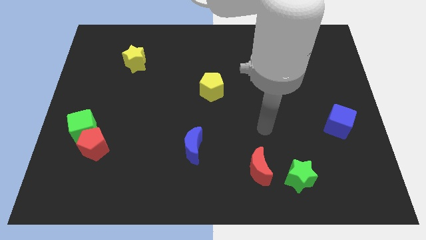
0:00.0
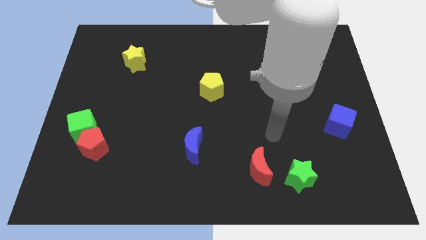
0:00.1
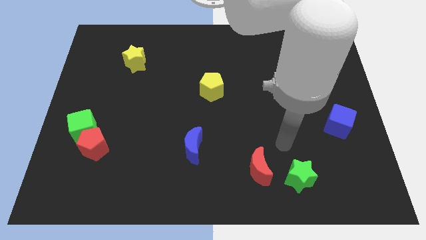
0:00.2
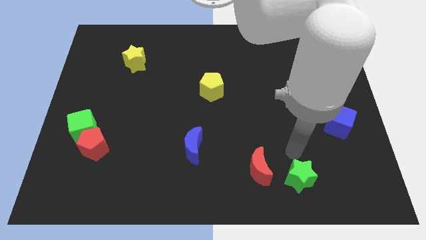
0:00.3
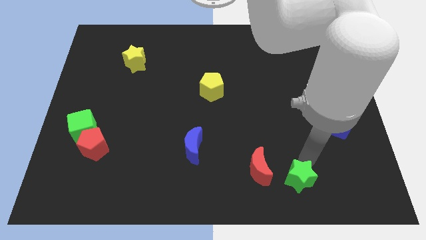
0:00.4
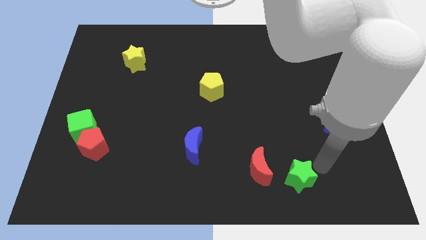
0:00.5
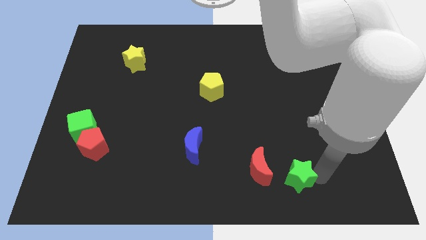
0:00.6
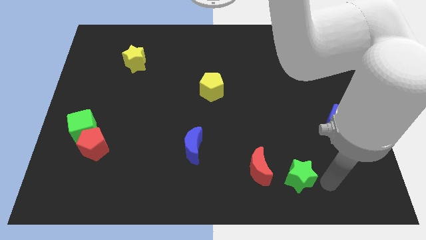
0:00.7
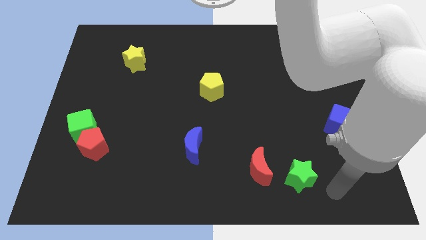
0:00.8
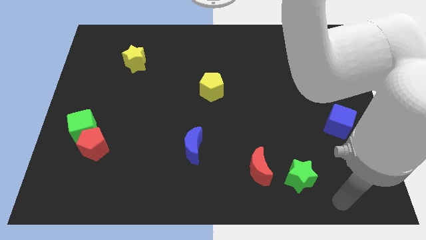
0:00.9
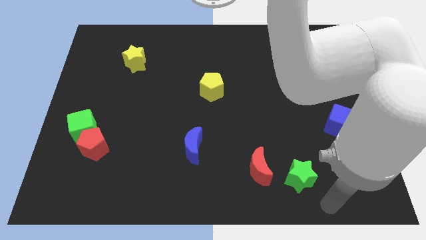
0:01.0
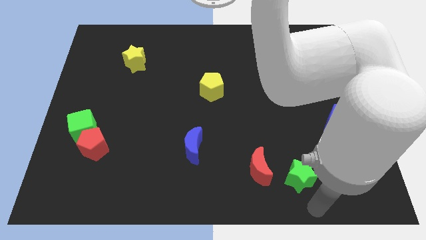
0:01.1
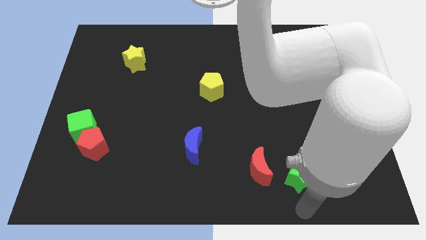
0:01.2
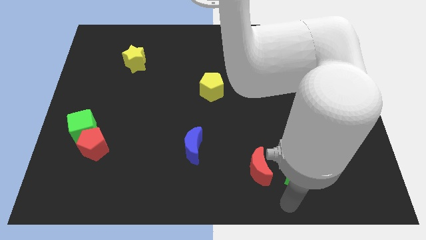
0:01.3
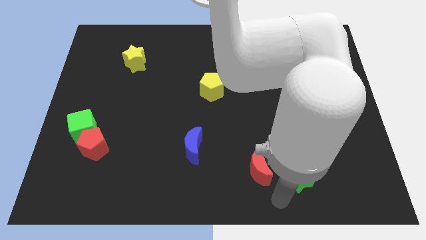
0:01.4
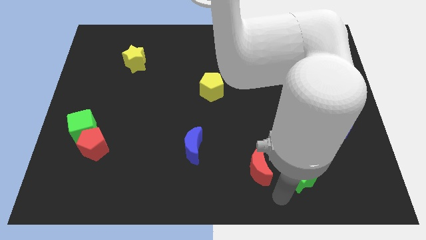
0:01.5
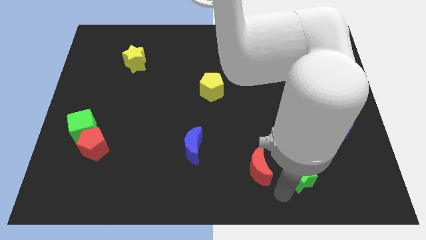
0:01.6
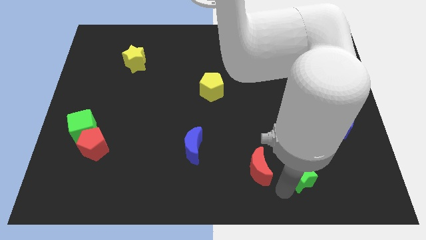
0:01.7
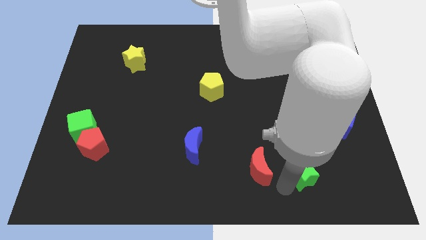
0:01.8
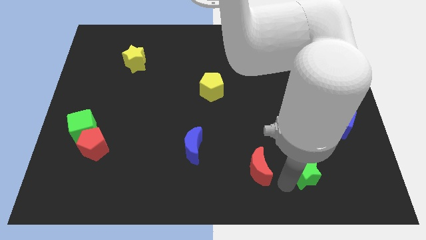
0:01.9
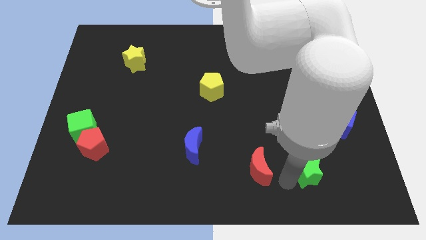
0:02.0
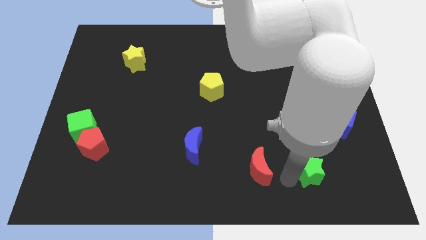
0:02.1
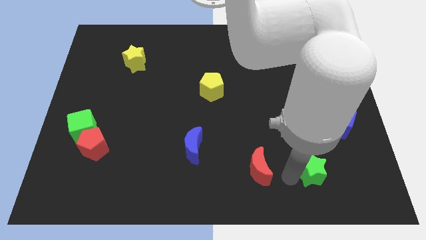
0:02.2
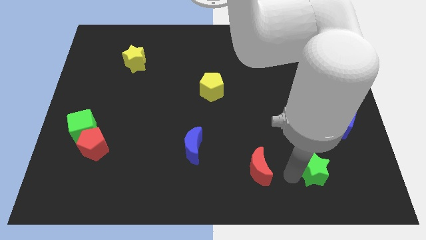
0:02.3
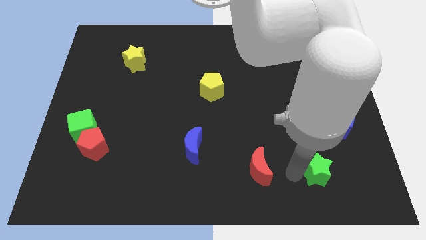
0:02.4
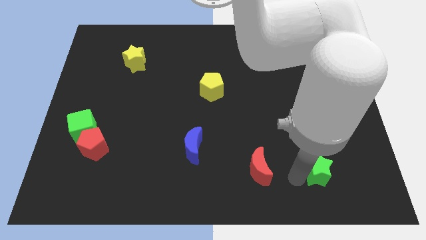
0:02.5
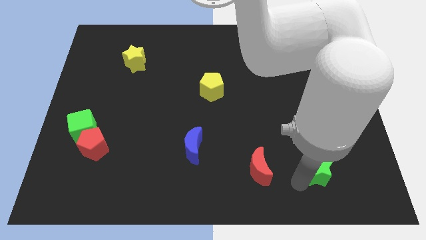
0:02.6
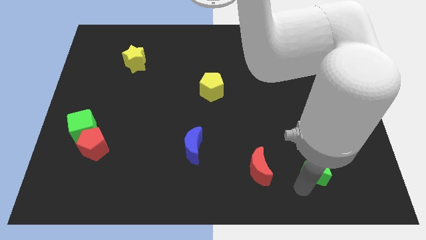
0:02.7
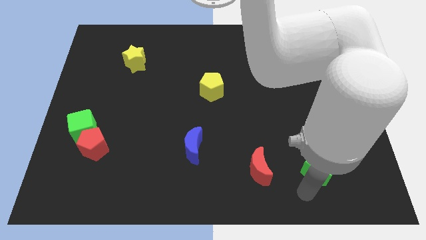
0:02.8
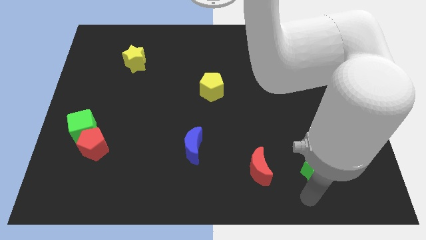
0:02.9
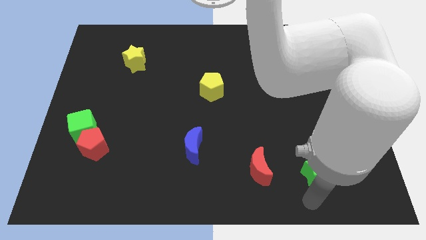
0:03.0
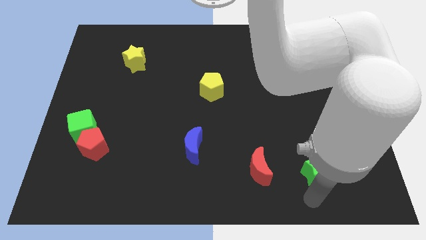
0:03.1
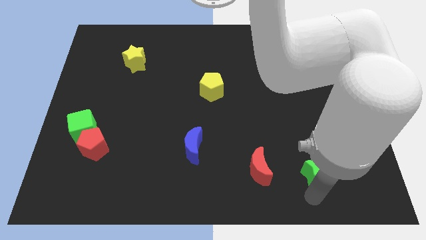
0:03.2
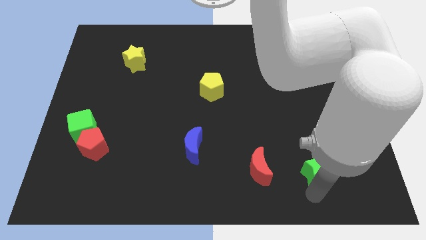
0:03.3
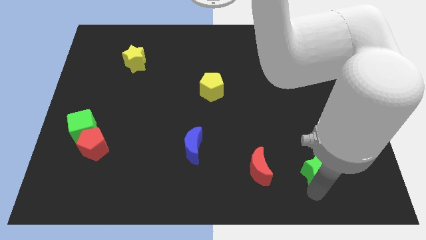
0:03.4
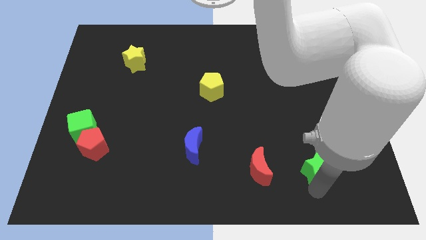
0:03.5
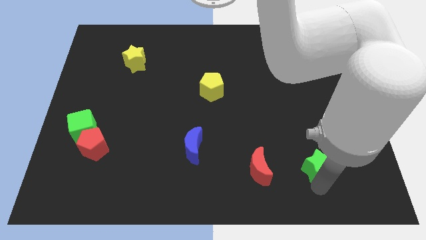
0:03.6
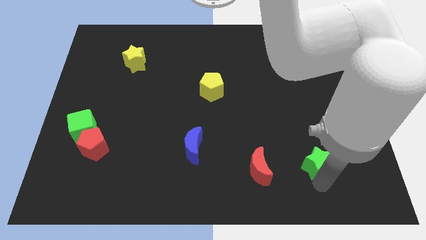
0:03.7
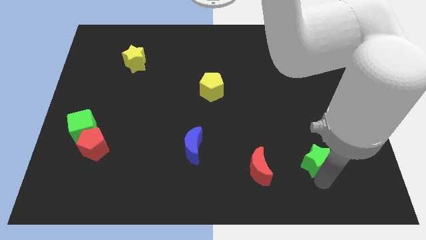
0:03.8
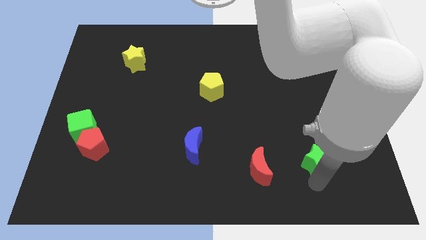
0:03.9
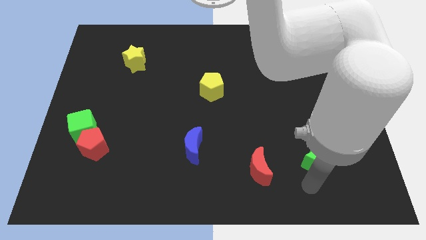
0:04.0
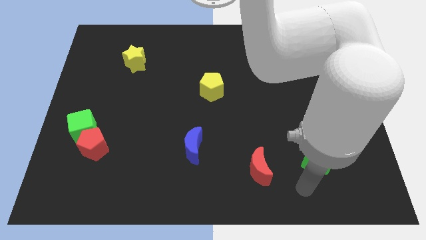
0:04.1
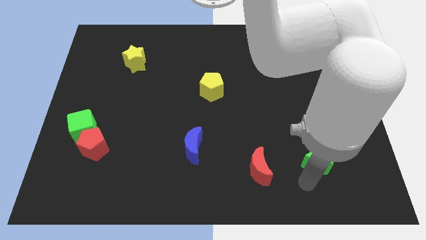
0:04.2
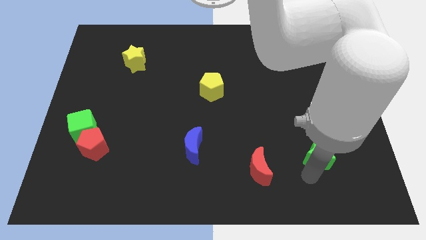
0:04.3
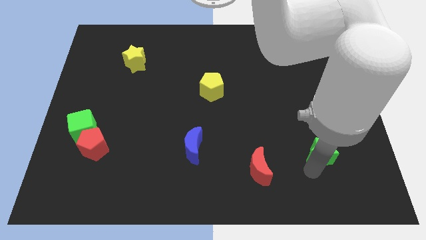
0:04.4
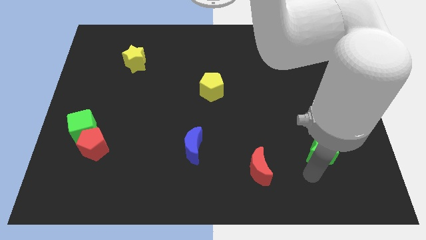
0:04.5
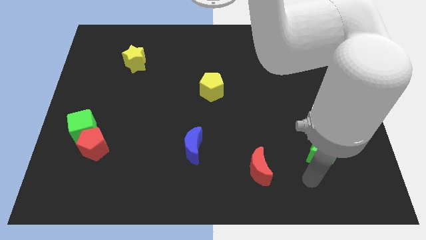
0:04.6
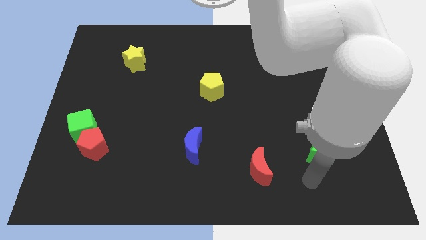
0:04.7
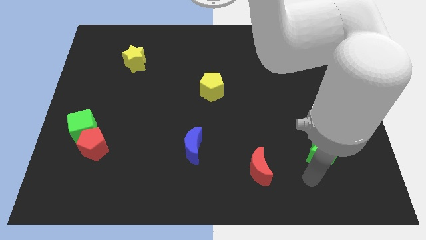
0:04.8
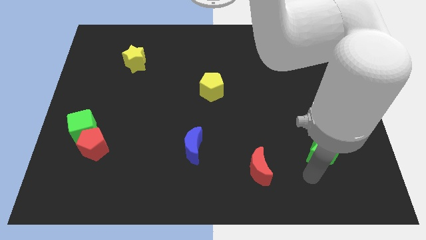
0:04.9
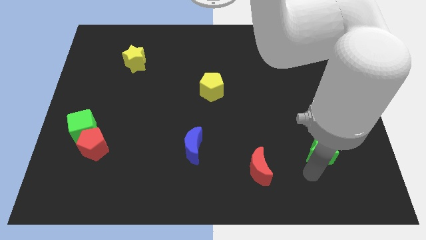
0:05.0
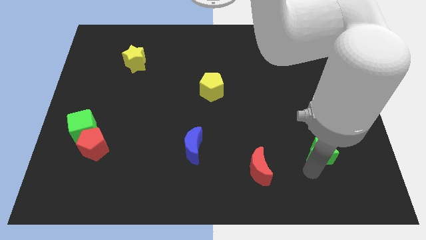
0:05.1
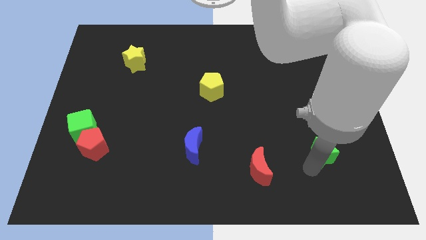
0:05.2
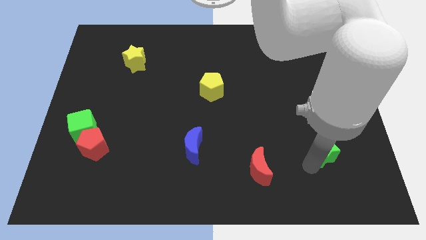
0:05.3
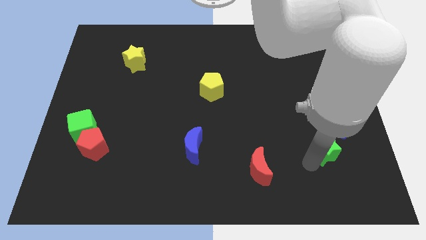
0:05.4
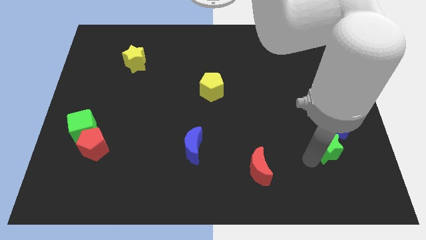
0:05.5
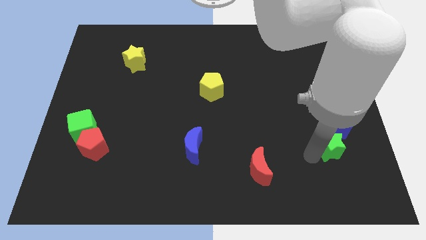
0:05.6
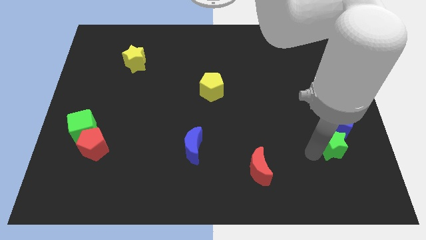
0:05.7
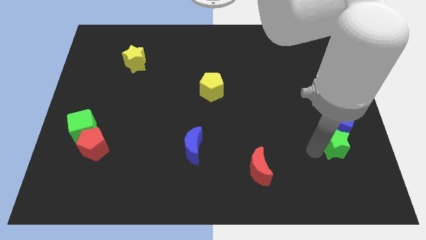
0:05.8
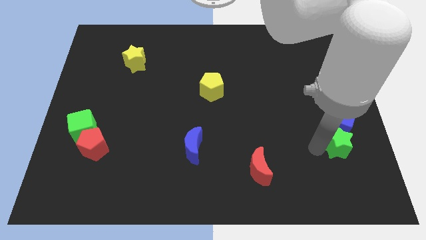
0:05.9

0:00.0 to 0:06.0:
put the green star to the blue cube

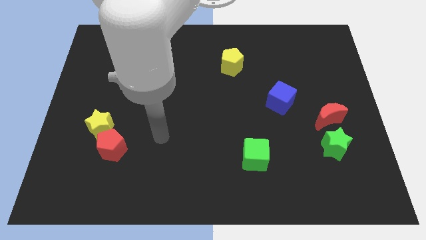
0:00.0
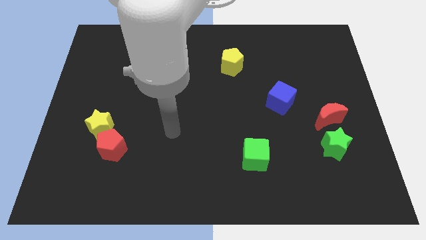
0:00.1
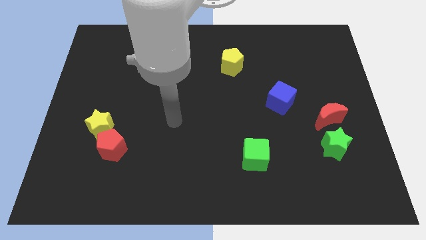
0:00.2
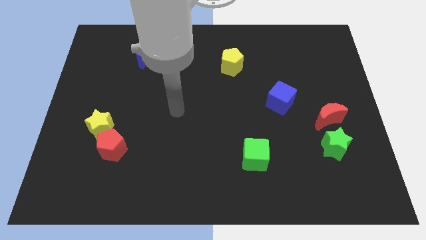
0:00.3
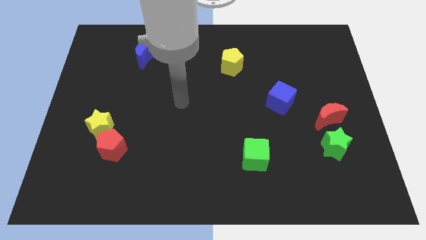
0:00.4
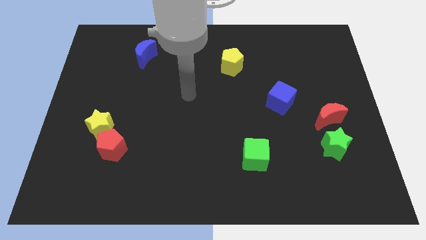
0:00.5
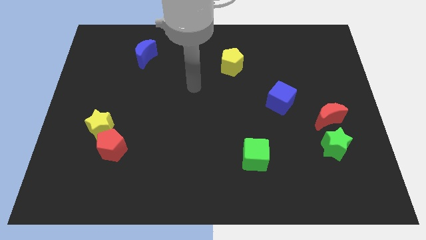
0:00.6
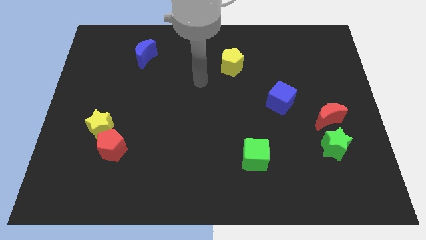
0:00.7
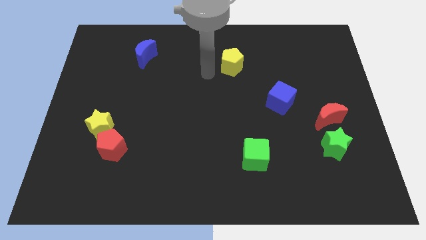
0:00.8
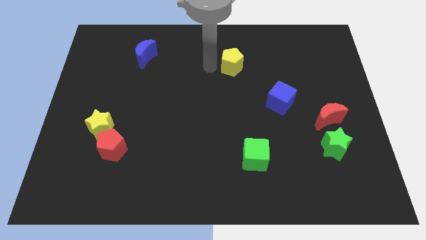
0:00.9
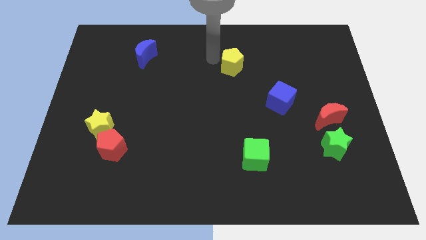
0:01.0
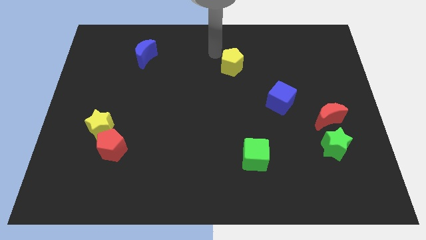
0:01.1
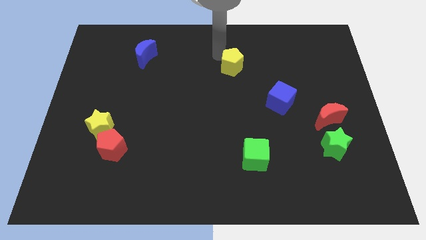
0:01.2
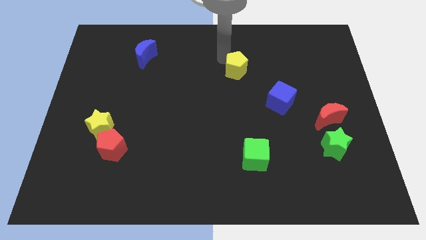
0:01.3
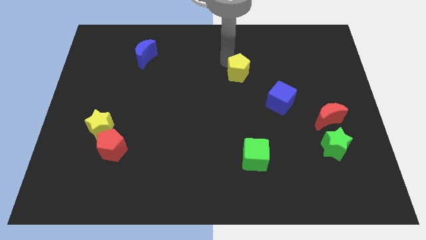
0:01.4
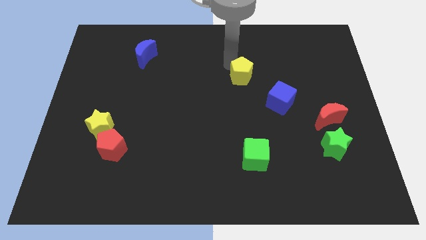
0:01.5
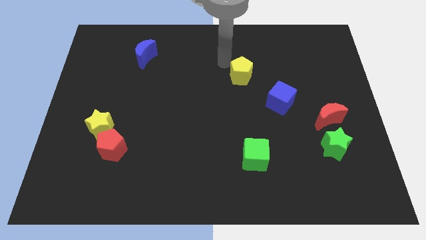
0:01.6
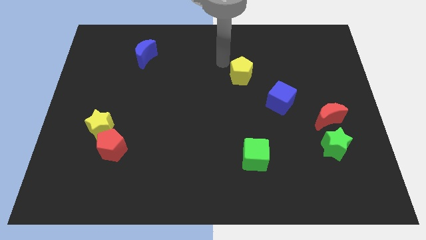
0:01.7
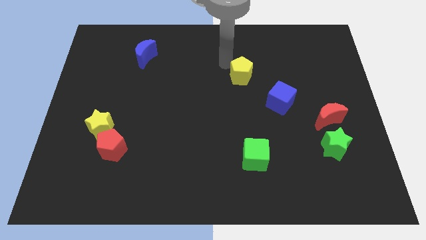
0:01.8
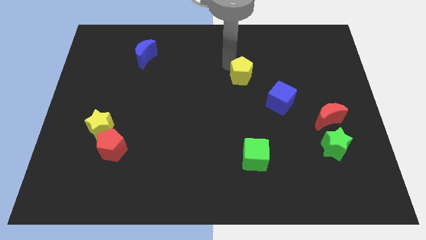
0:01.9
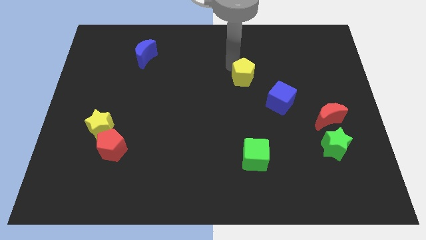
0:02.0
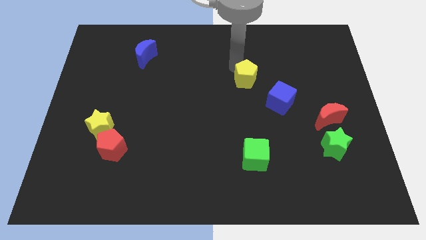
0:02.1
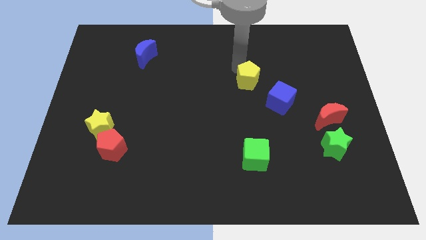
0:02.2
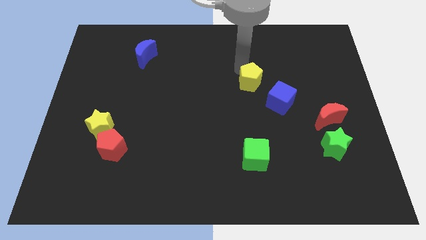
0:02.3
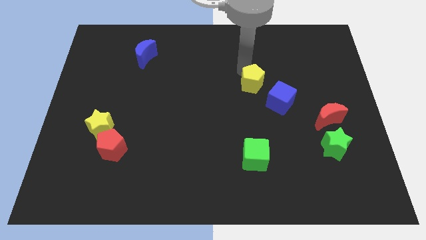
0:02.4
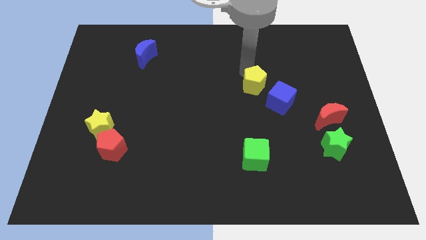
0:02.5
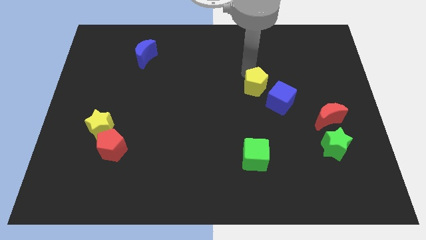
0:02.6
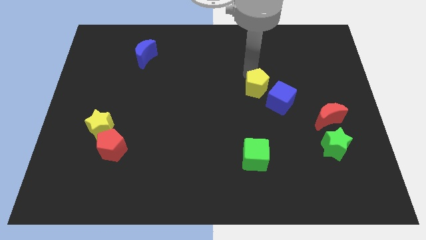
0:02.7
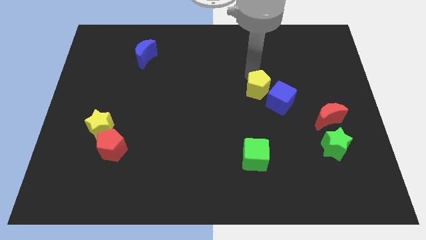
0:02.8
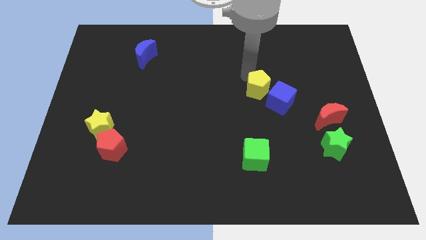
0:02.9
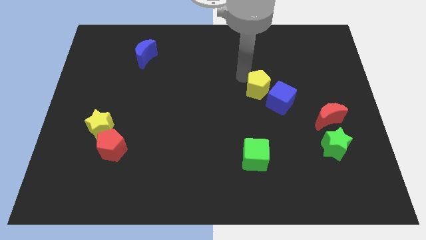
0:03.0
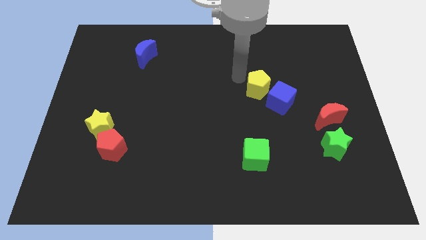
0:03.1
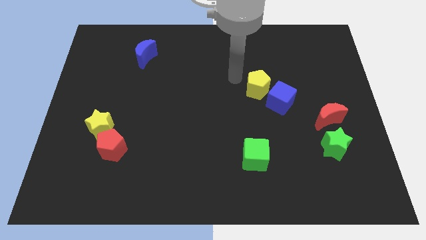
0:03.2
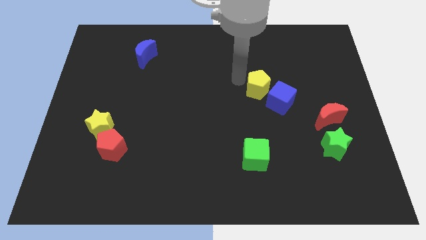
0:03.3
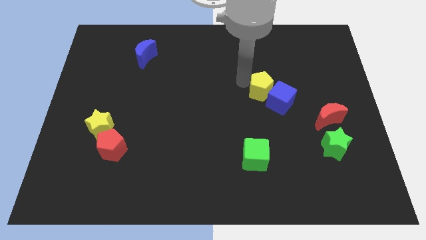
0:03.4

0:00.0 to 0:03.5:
put the yellow pentagon close to the blue cube
